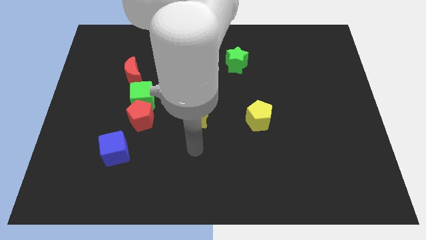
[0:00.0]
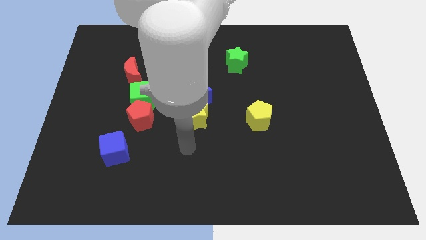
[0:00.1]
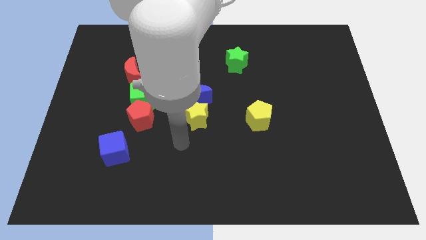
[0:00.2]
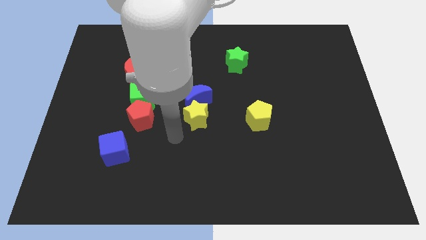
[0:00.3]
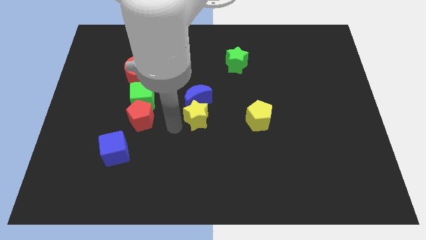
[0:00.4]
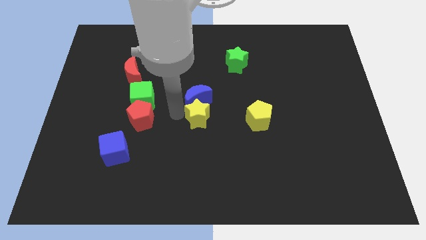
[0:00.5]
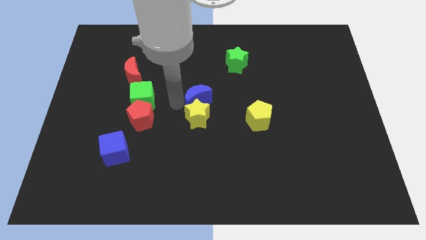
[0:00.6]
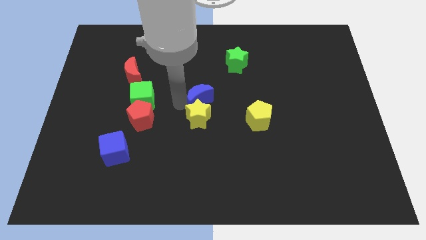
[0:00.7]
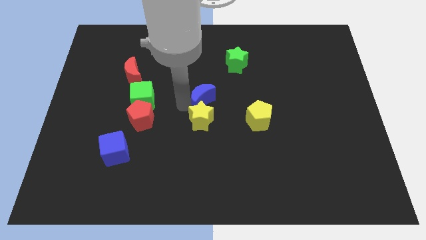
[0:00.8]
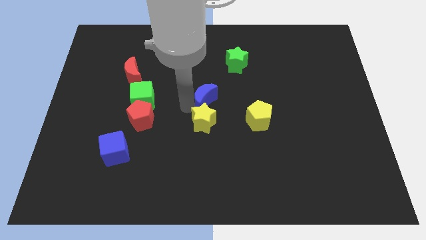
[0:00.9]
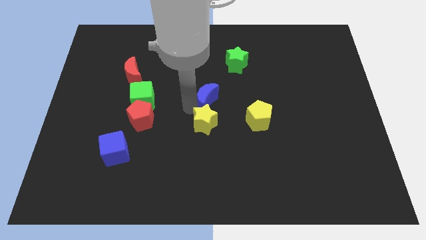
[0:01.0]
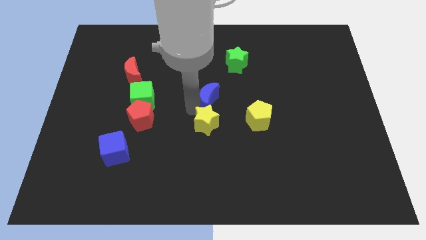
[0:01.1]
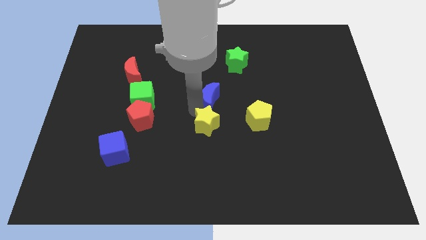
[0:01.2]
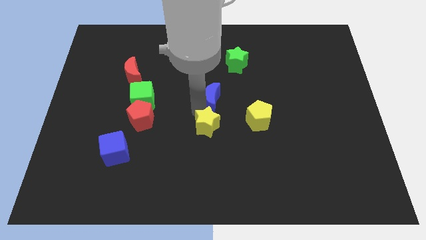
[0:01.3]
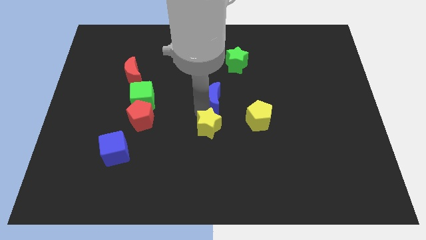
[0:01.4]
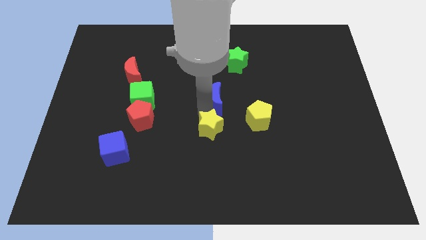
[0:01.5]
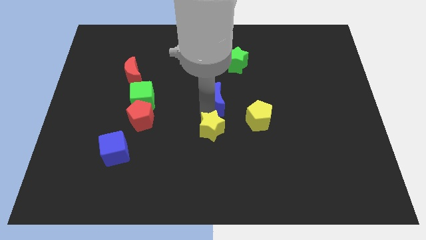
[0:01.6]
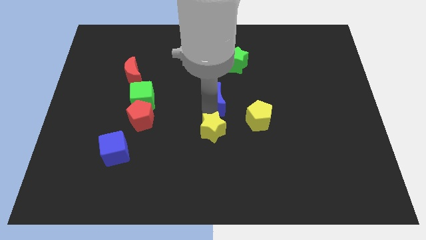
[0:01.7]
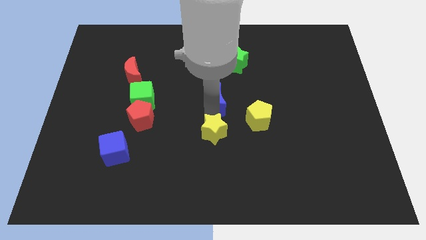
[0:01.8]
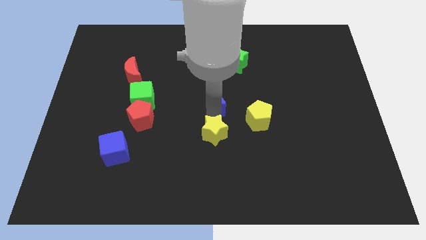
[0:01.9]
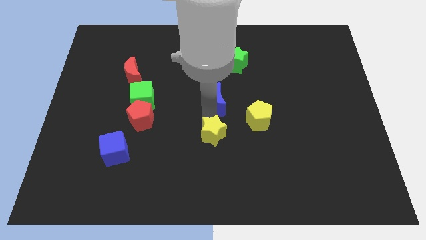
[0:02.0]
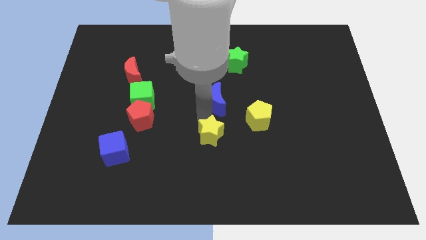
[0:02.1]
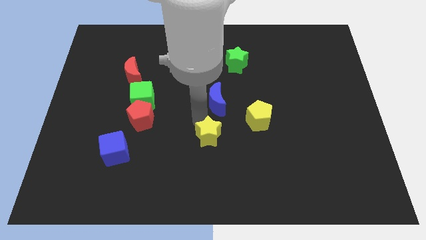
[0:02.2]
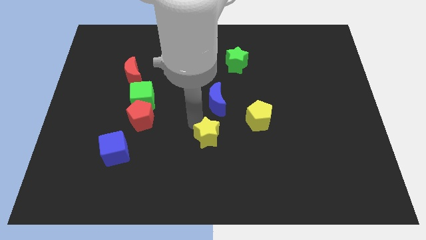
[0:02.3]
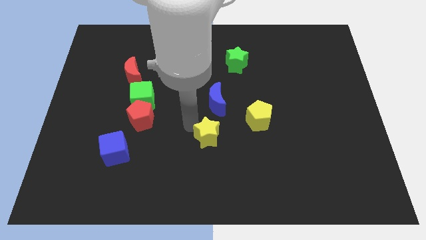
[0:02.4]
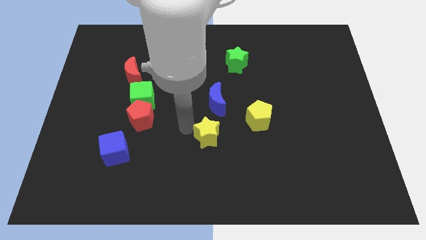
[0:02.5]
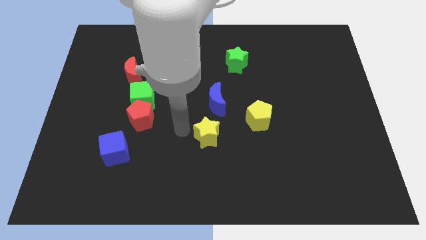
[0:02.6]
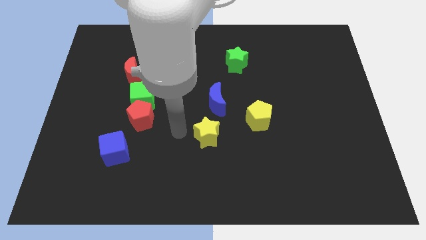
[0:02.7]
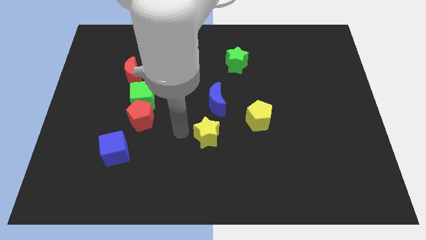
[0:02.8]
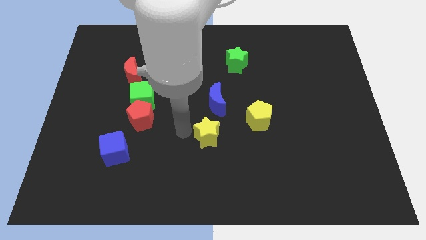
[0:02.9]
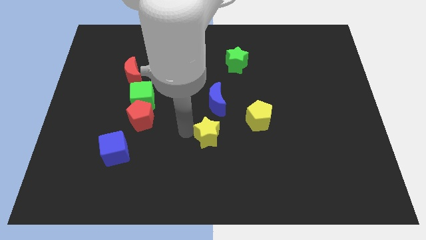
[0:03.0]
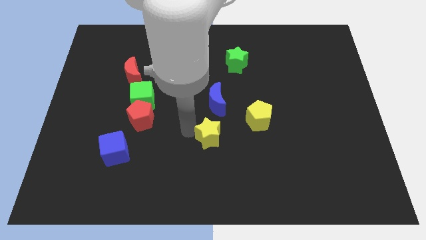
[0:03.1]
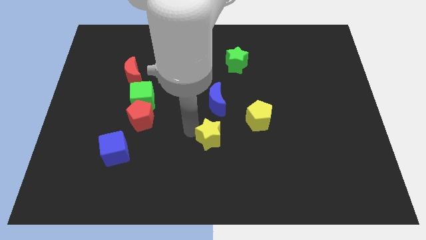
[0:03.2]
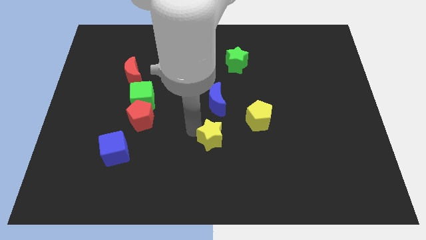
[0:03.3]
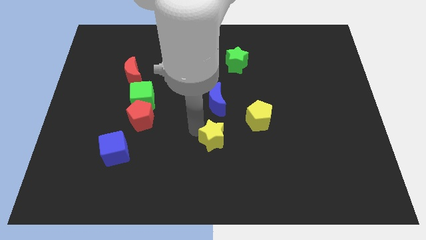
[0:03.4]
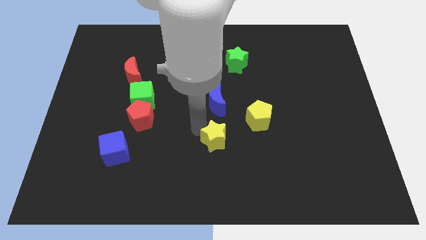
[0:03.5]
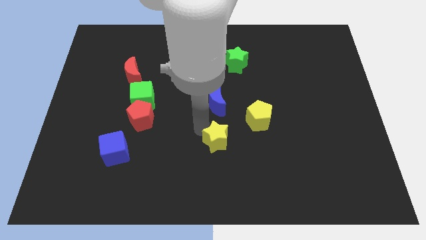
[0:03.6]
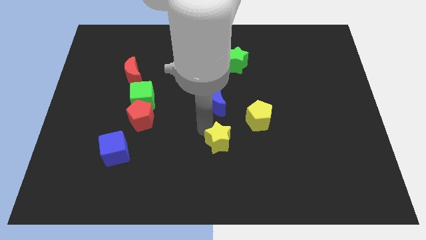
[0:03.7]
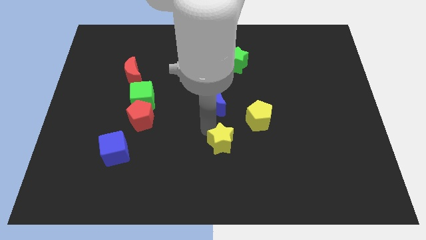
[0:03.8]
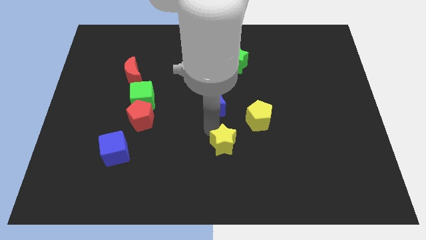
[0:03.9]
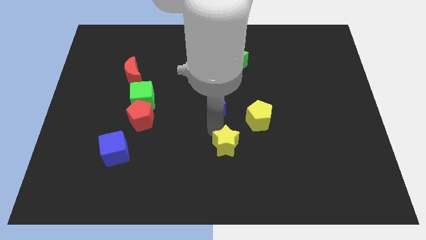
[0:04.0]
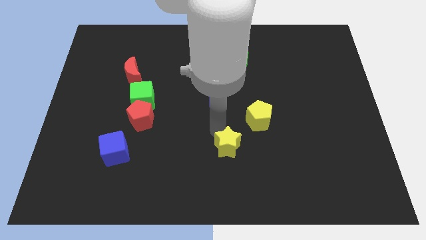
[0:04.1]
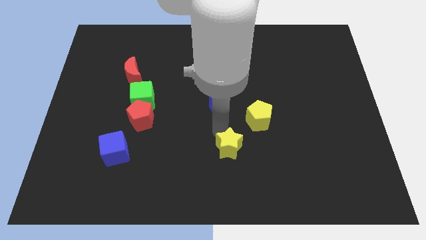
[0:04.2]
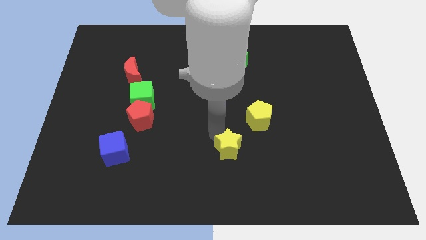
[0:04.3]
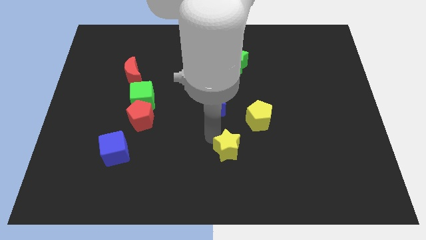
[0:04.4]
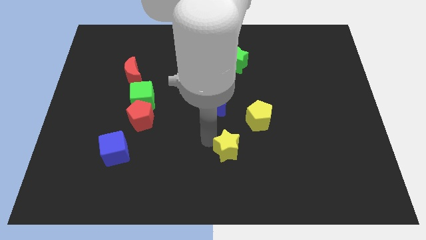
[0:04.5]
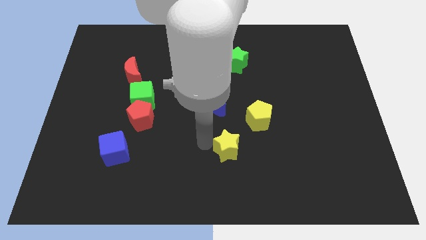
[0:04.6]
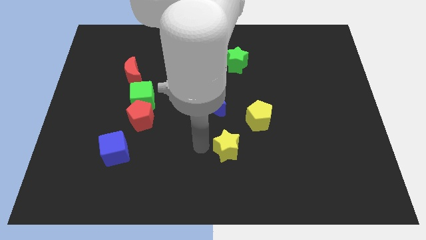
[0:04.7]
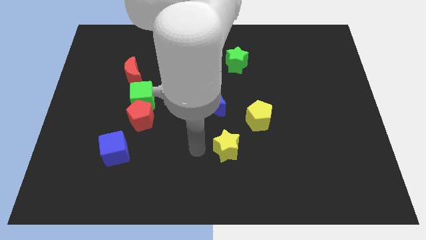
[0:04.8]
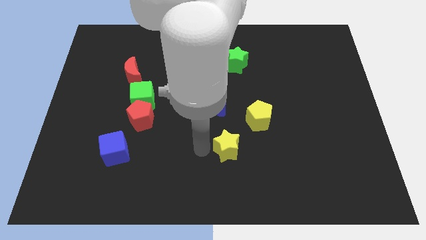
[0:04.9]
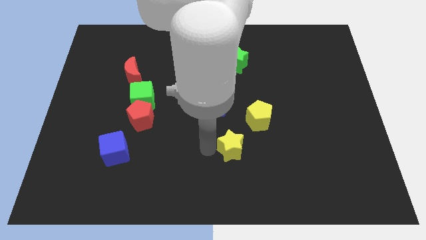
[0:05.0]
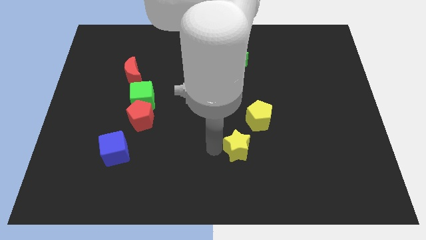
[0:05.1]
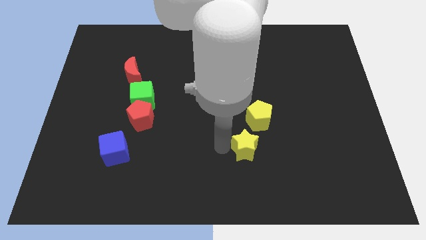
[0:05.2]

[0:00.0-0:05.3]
move the yellow star below the yellow pentagon

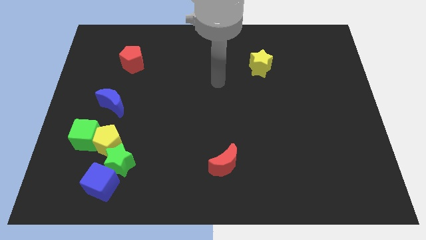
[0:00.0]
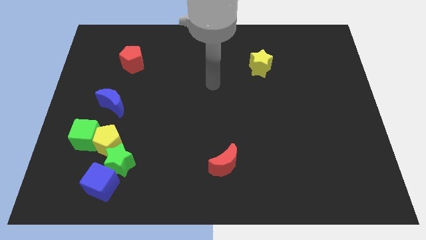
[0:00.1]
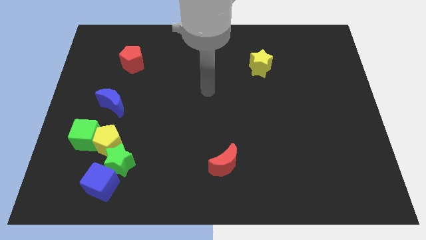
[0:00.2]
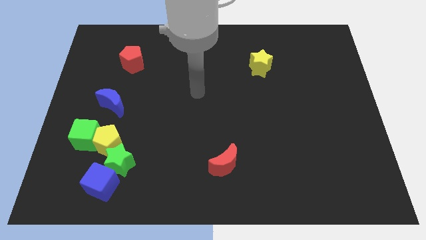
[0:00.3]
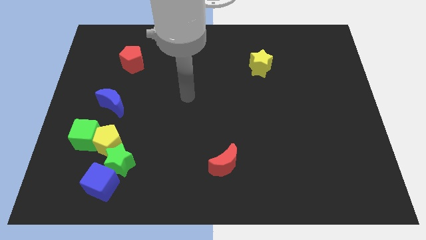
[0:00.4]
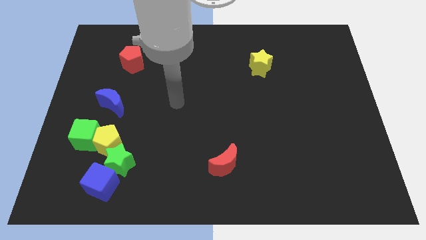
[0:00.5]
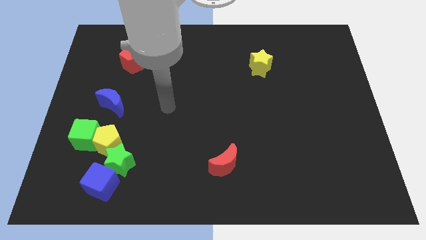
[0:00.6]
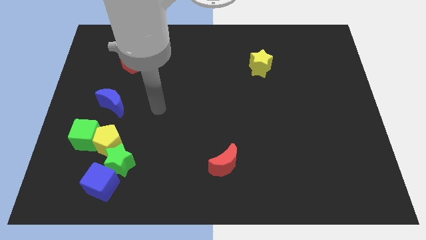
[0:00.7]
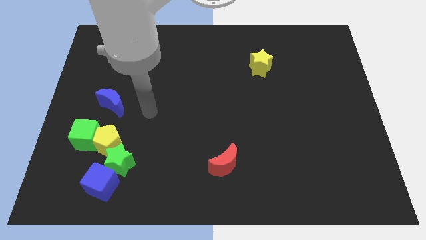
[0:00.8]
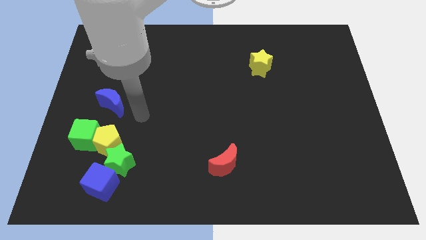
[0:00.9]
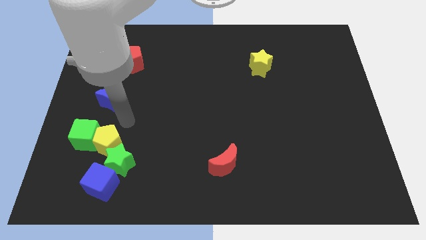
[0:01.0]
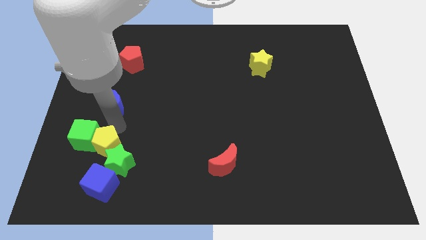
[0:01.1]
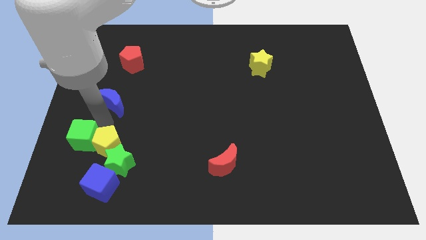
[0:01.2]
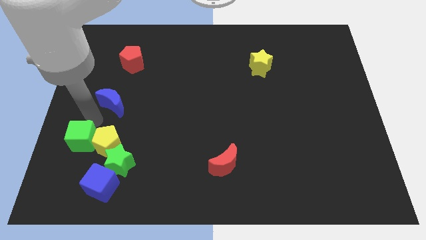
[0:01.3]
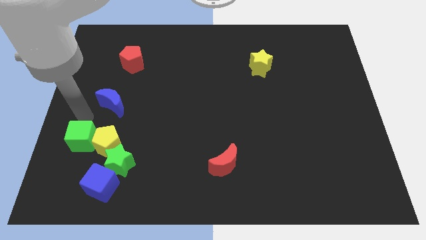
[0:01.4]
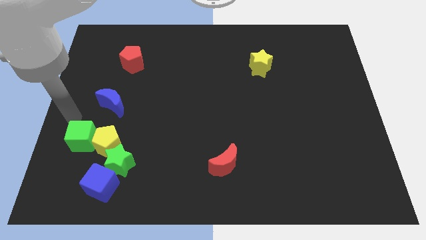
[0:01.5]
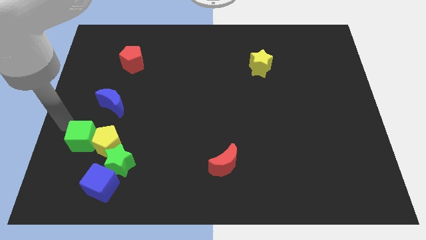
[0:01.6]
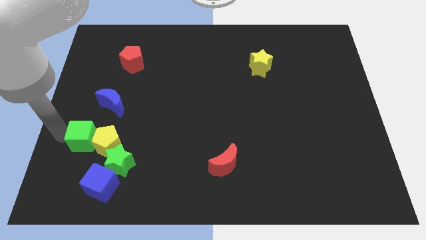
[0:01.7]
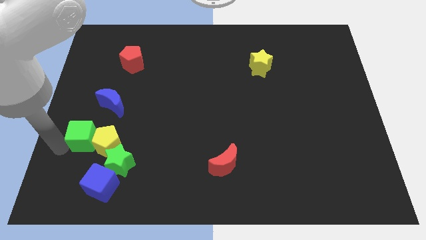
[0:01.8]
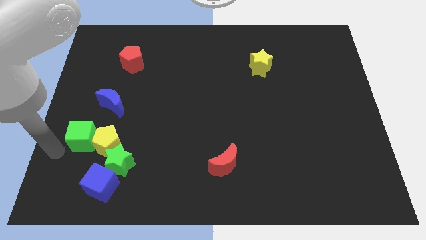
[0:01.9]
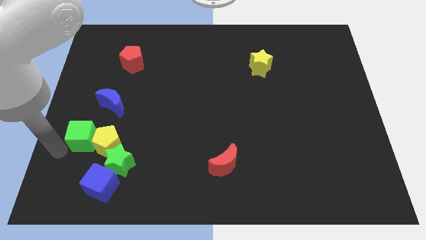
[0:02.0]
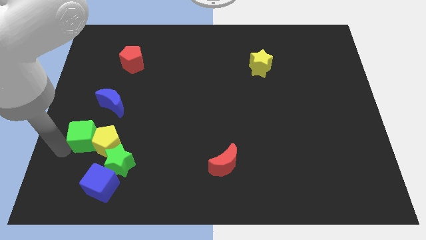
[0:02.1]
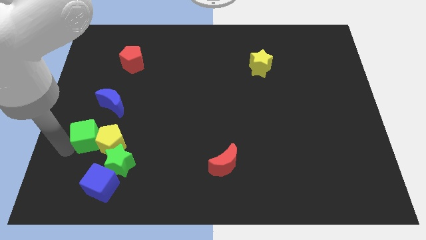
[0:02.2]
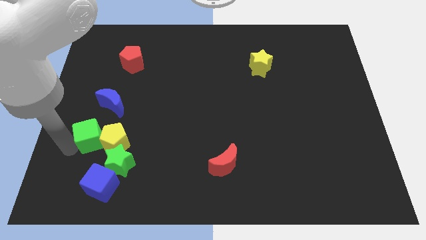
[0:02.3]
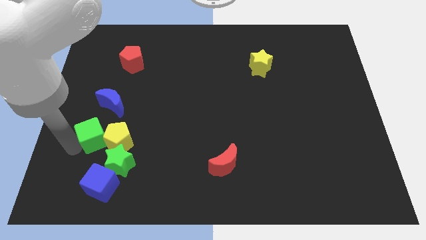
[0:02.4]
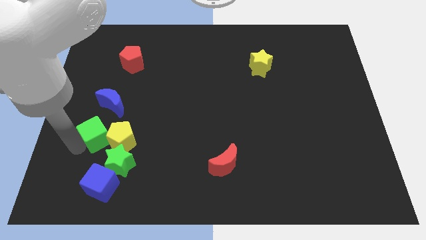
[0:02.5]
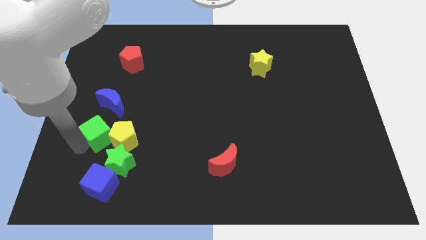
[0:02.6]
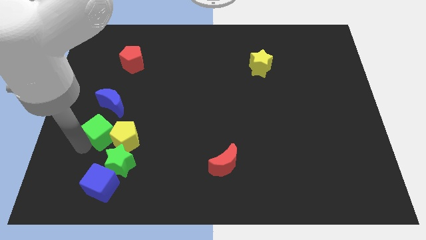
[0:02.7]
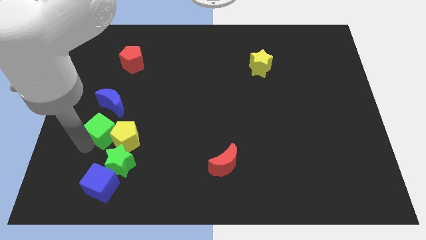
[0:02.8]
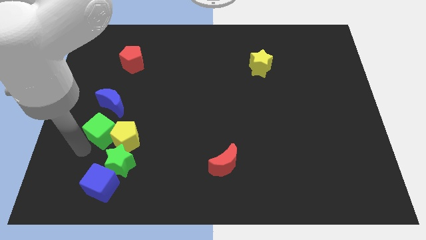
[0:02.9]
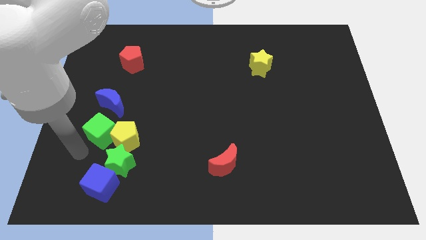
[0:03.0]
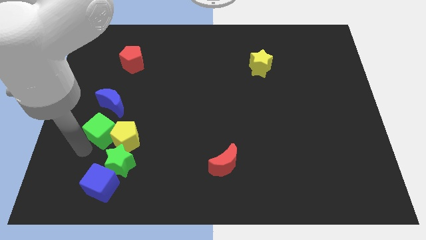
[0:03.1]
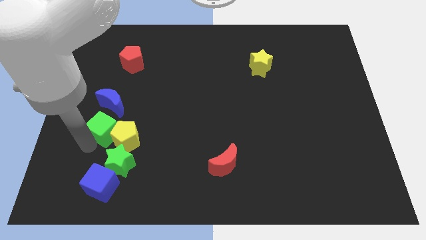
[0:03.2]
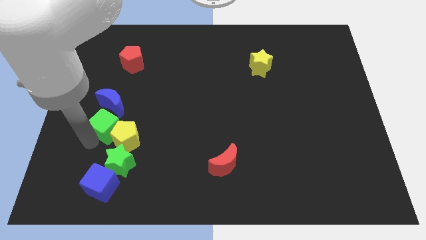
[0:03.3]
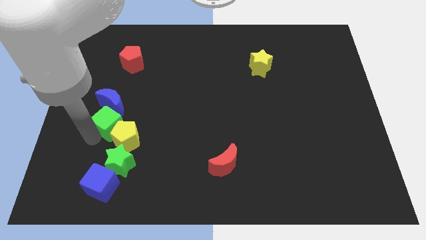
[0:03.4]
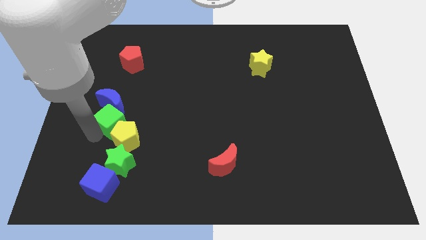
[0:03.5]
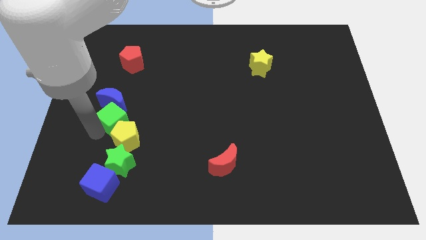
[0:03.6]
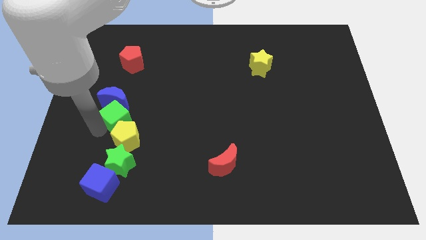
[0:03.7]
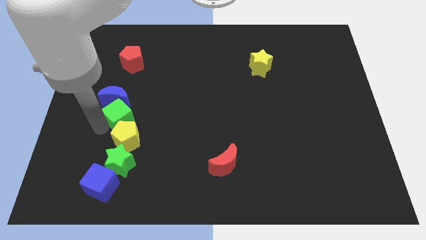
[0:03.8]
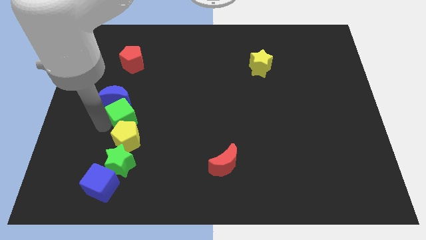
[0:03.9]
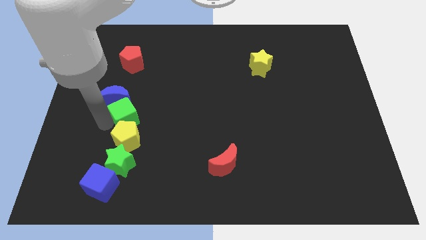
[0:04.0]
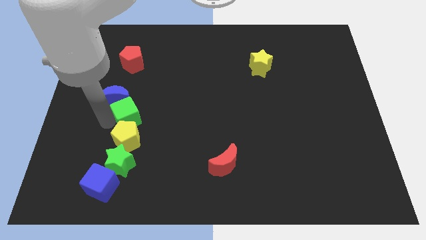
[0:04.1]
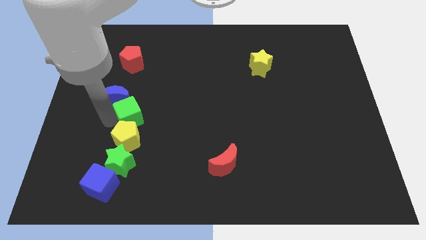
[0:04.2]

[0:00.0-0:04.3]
put the green cube just right of the blue moon
